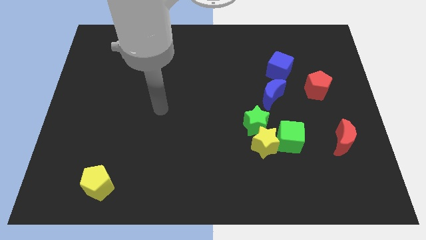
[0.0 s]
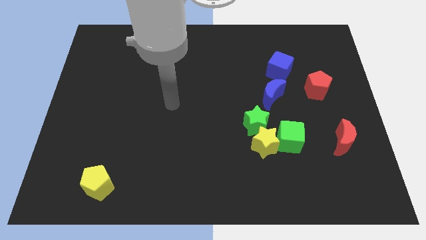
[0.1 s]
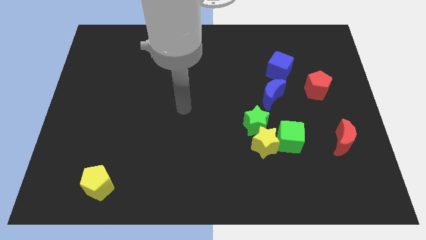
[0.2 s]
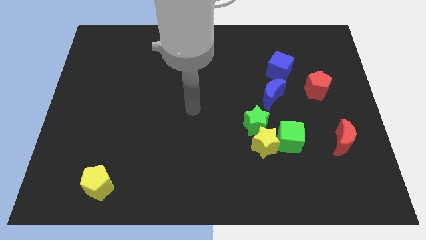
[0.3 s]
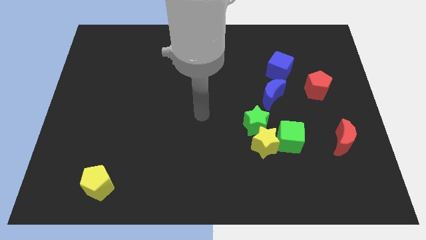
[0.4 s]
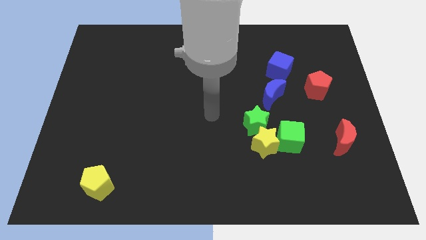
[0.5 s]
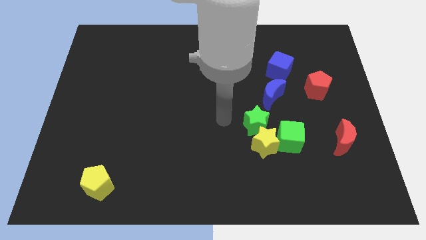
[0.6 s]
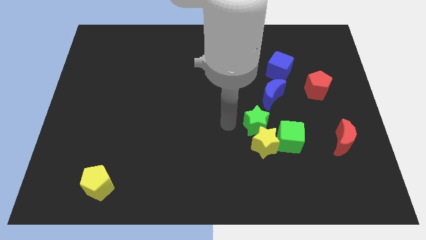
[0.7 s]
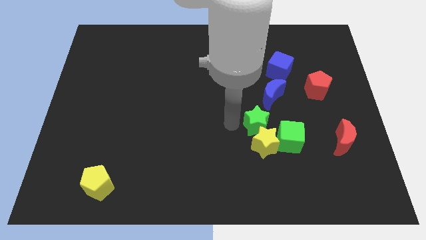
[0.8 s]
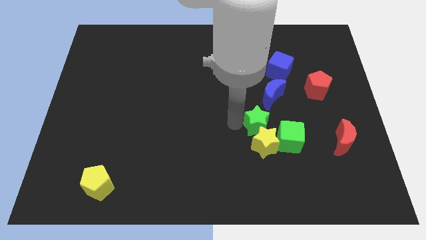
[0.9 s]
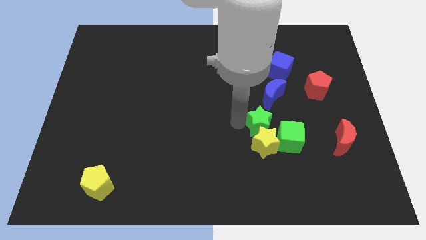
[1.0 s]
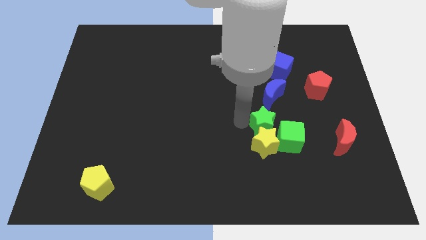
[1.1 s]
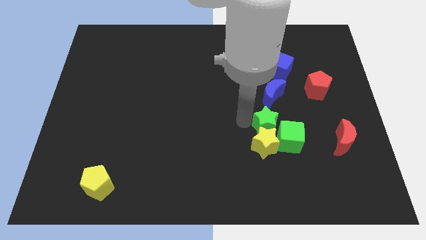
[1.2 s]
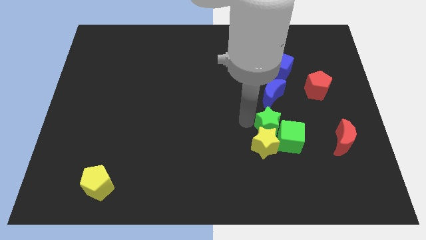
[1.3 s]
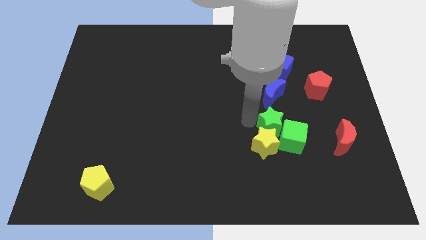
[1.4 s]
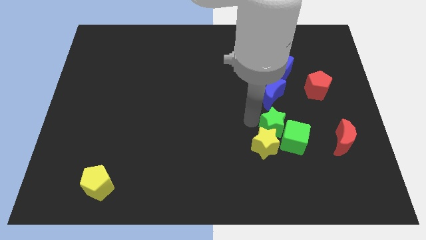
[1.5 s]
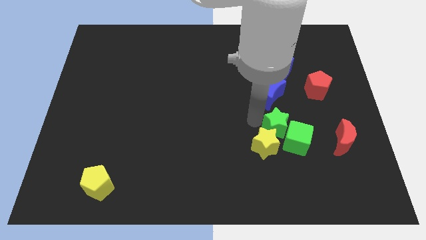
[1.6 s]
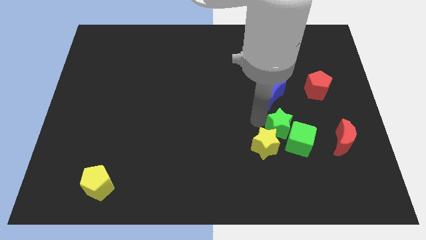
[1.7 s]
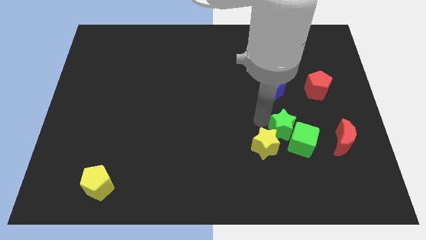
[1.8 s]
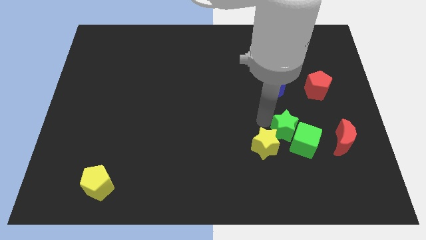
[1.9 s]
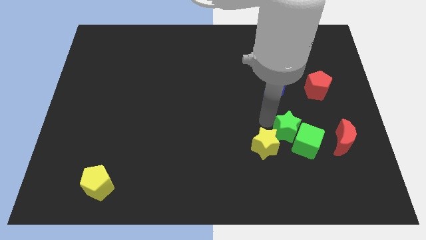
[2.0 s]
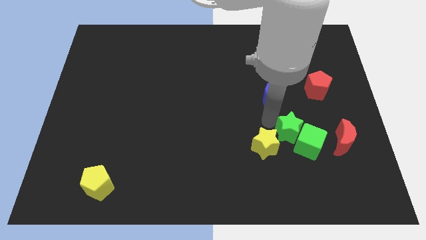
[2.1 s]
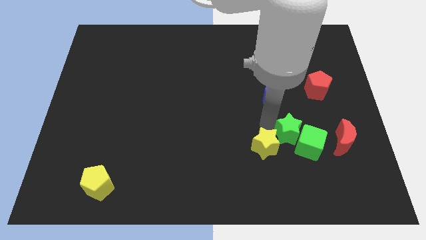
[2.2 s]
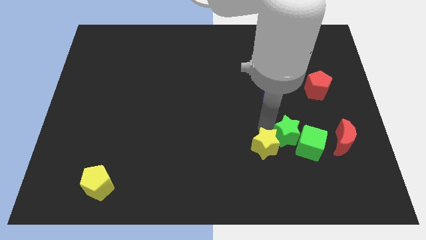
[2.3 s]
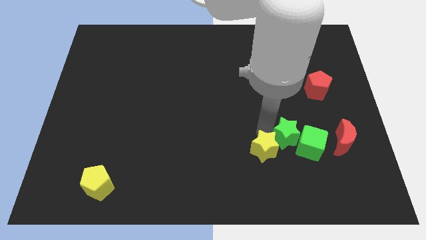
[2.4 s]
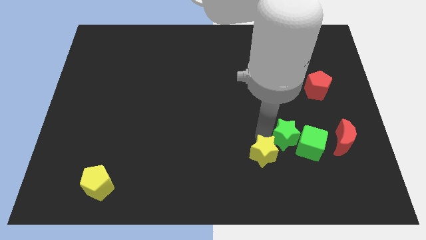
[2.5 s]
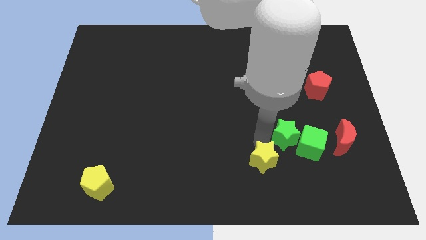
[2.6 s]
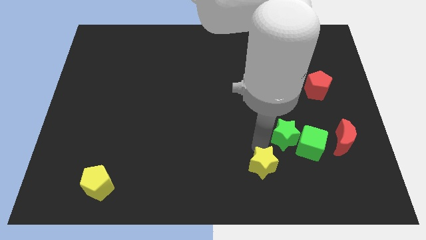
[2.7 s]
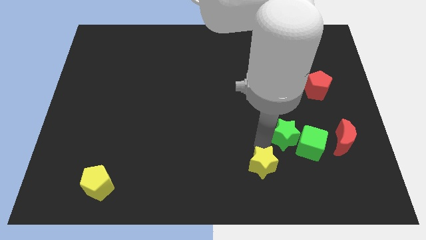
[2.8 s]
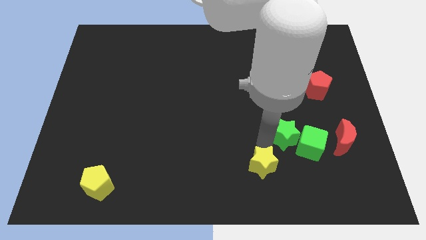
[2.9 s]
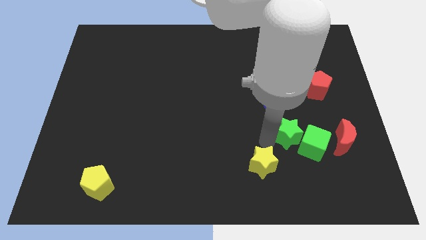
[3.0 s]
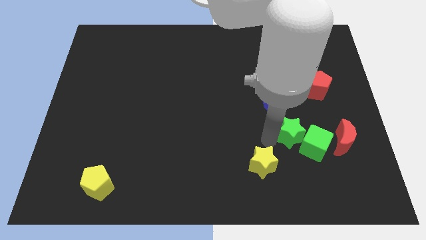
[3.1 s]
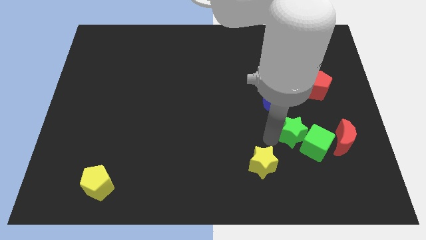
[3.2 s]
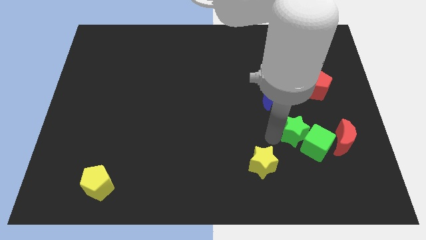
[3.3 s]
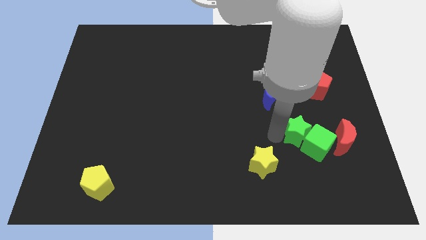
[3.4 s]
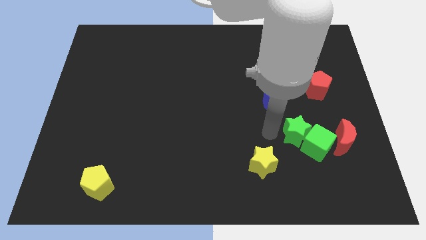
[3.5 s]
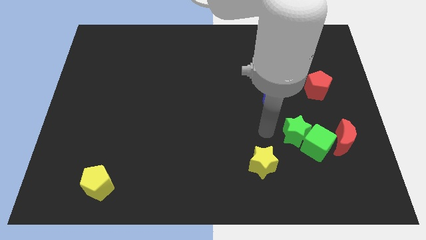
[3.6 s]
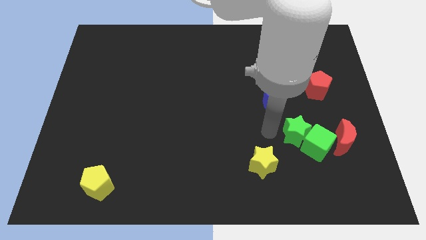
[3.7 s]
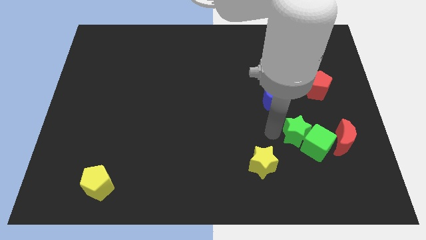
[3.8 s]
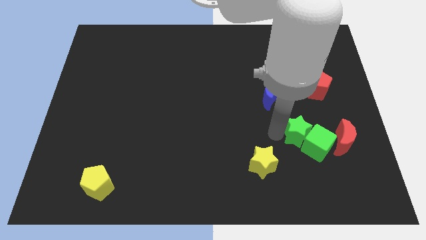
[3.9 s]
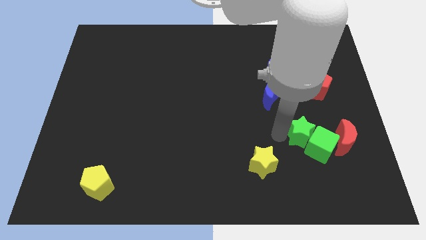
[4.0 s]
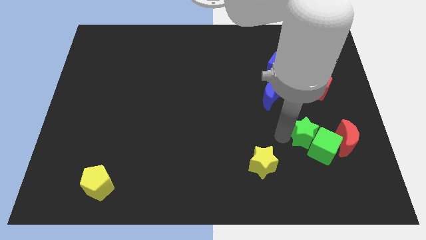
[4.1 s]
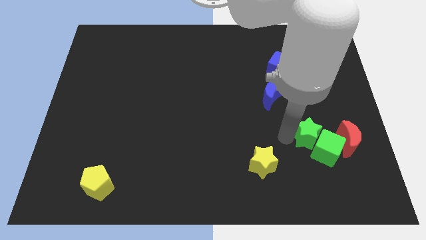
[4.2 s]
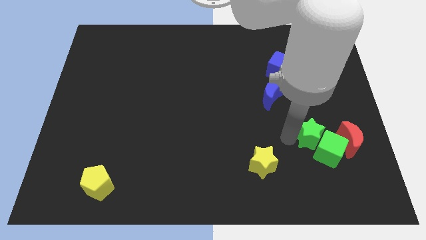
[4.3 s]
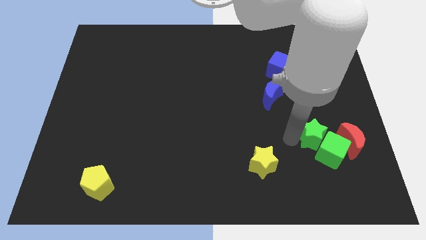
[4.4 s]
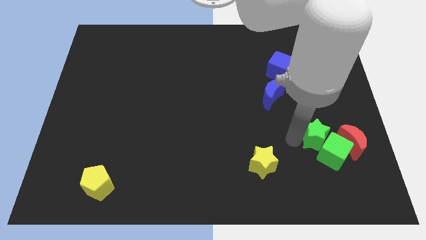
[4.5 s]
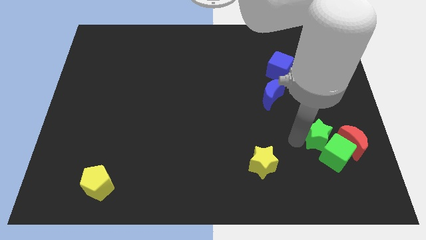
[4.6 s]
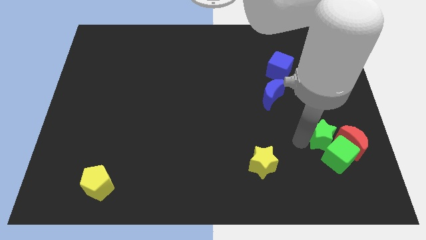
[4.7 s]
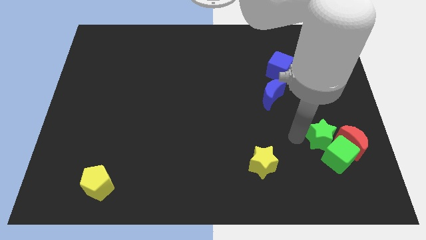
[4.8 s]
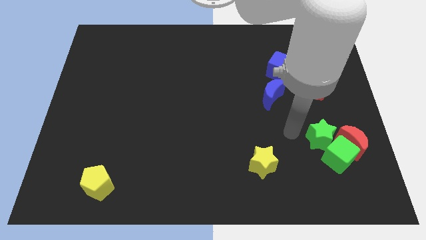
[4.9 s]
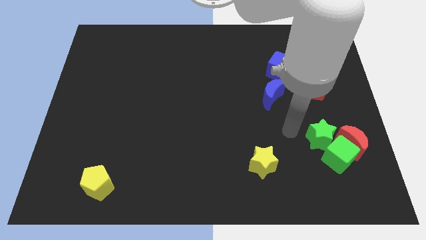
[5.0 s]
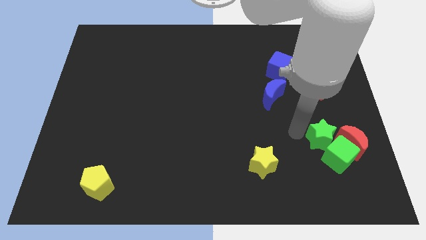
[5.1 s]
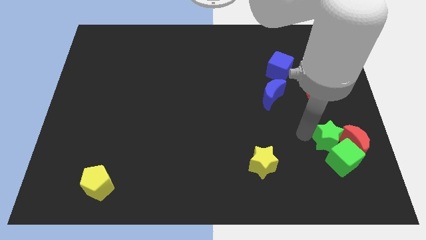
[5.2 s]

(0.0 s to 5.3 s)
move the green star towards the red moon

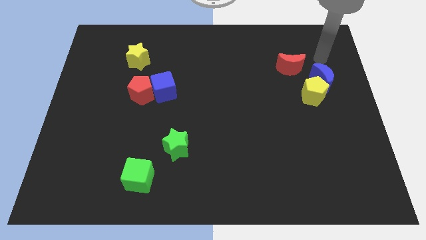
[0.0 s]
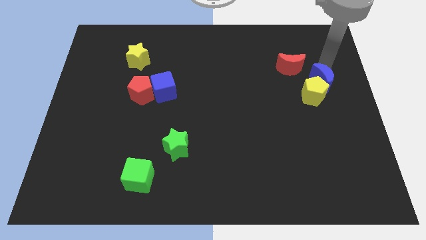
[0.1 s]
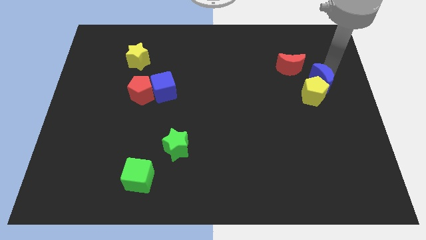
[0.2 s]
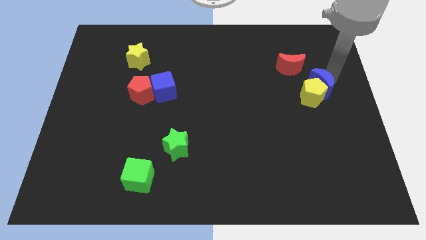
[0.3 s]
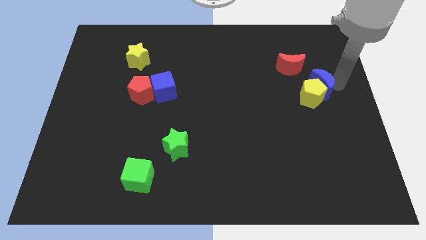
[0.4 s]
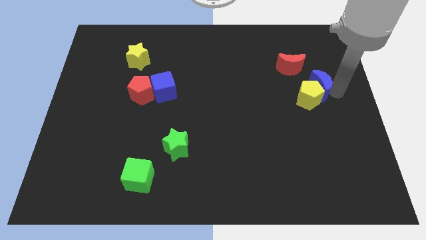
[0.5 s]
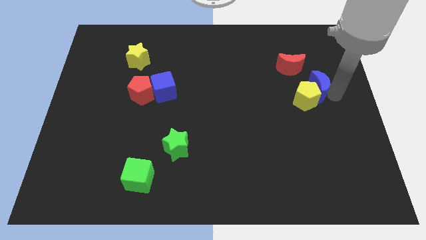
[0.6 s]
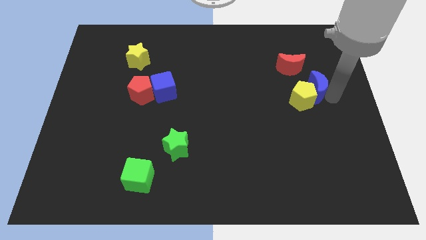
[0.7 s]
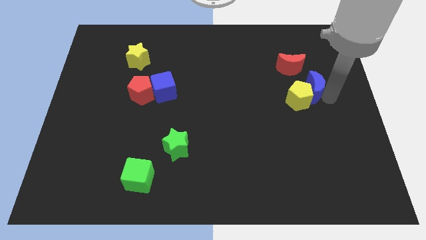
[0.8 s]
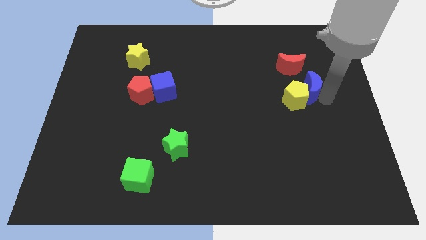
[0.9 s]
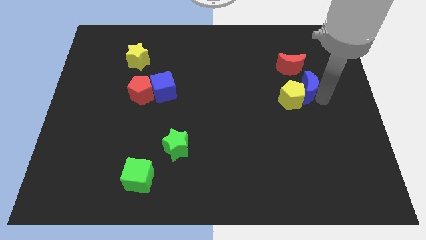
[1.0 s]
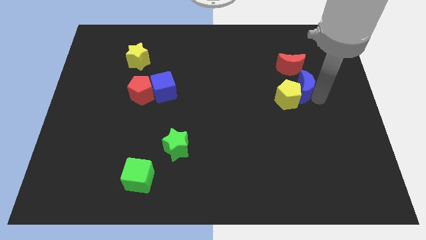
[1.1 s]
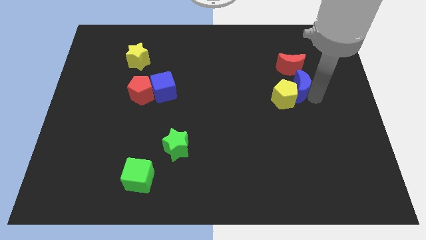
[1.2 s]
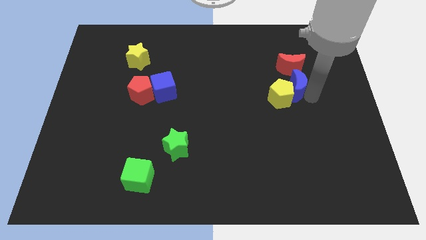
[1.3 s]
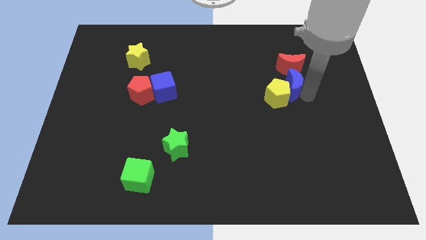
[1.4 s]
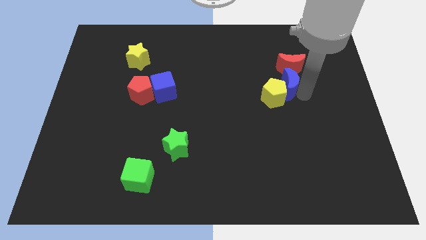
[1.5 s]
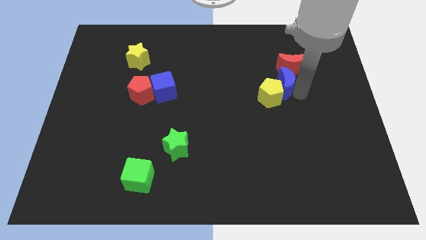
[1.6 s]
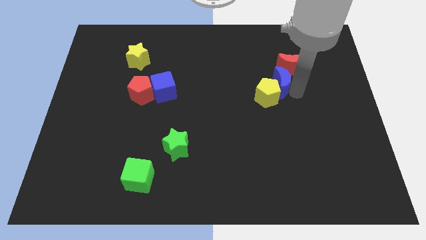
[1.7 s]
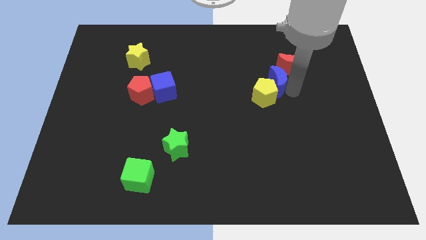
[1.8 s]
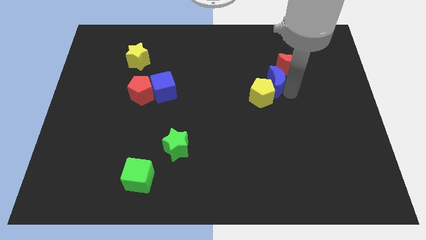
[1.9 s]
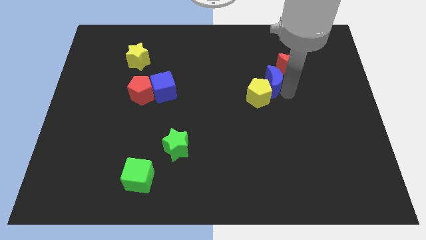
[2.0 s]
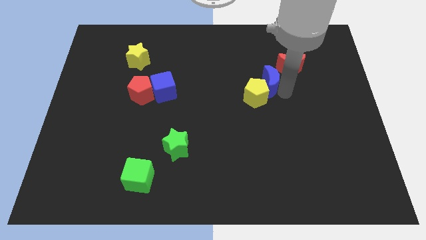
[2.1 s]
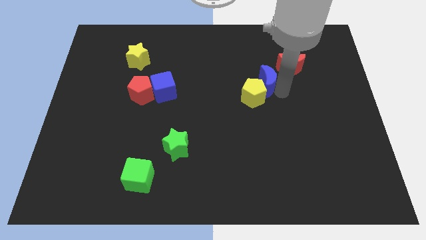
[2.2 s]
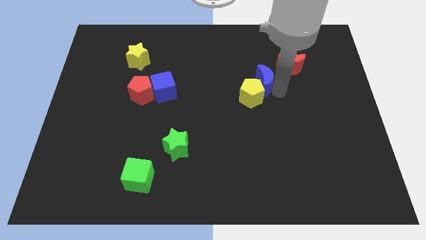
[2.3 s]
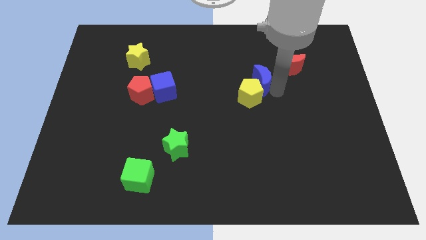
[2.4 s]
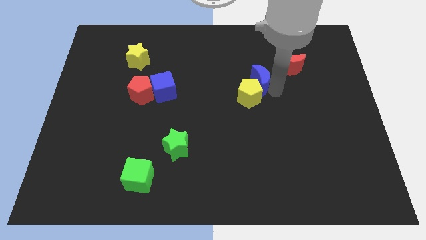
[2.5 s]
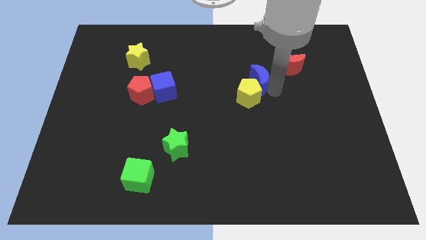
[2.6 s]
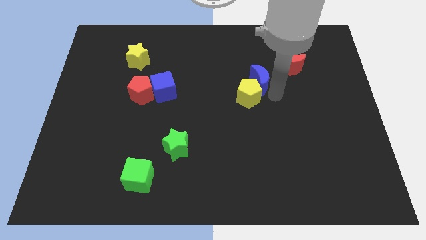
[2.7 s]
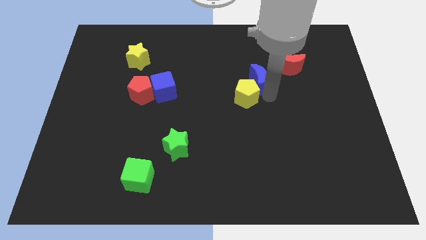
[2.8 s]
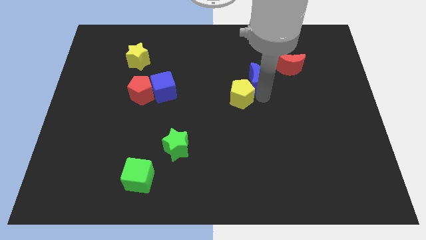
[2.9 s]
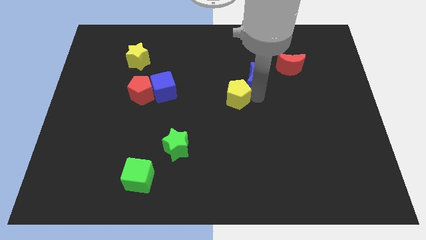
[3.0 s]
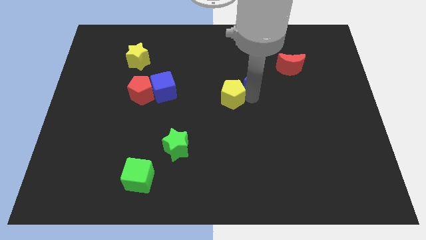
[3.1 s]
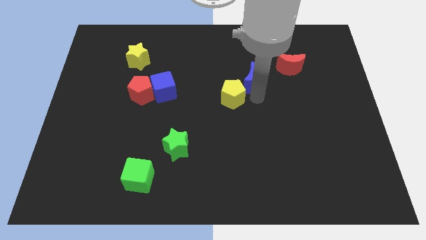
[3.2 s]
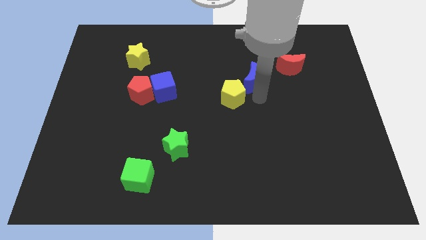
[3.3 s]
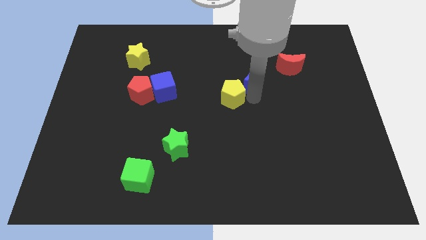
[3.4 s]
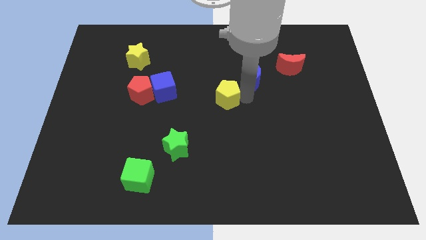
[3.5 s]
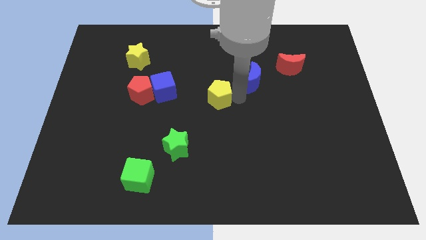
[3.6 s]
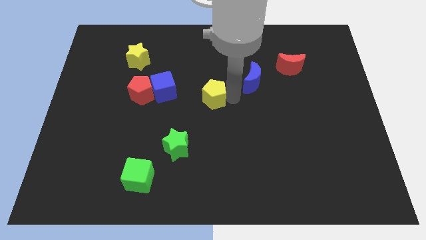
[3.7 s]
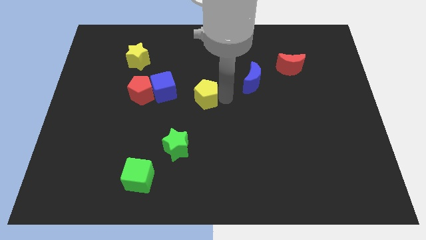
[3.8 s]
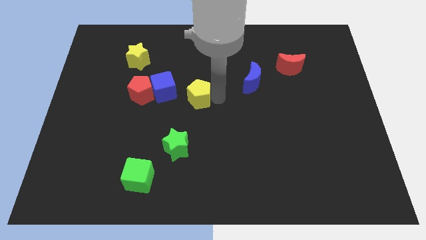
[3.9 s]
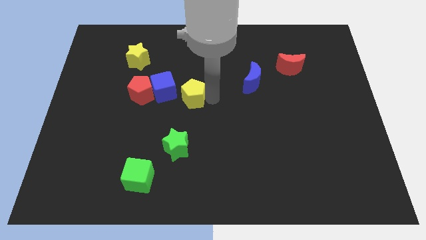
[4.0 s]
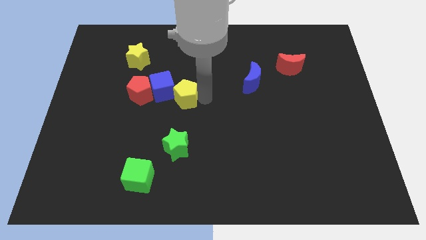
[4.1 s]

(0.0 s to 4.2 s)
slide the yellow pentagon next to the blue cube
